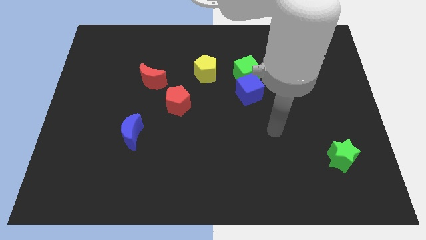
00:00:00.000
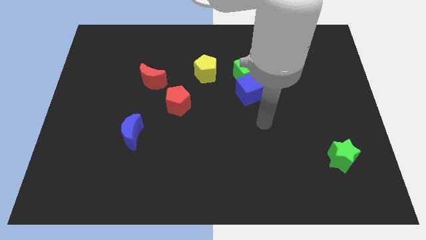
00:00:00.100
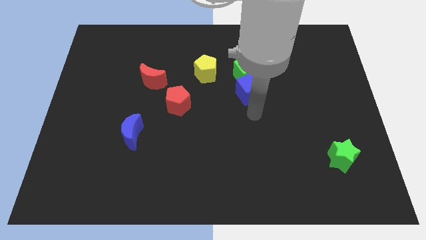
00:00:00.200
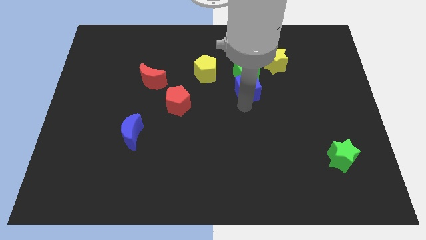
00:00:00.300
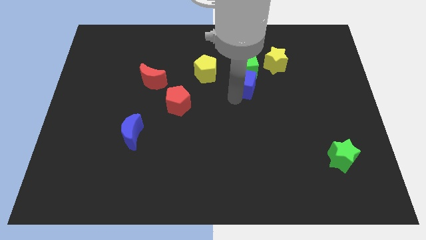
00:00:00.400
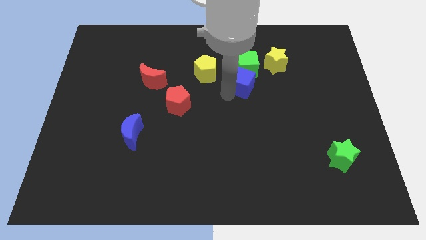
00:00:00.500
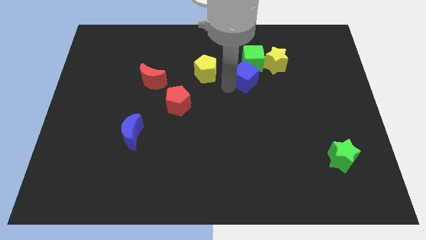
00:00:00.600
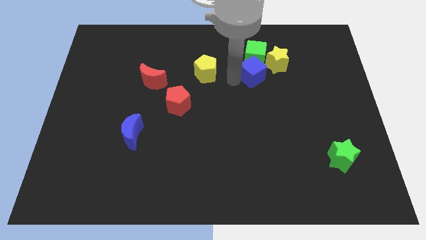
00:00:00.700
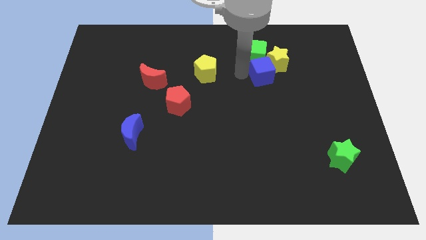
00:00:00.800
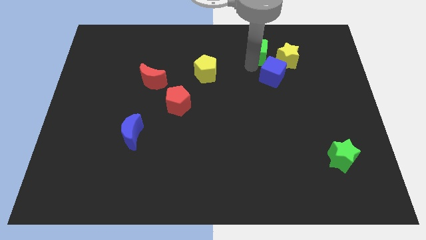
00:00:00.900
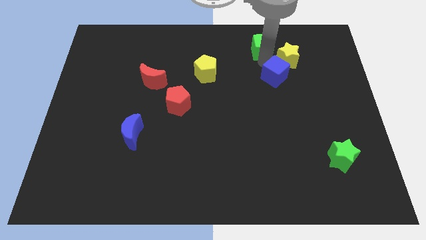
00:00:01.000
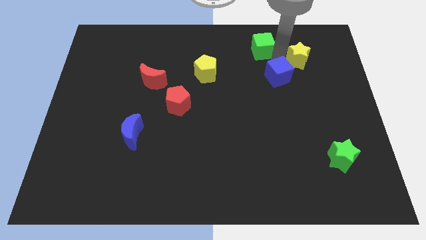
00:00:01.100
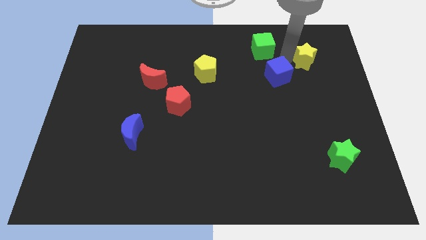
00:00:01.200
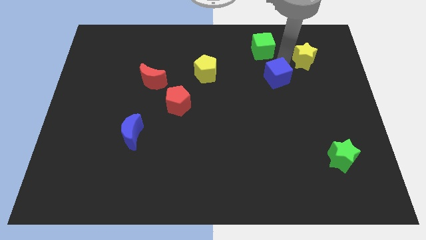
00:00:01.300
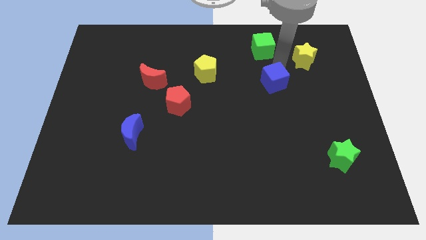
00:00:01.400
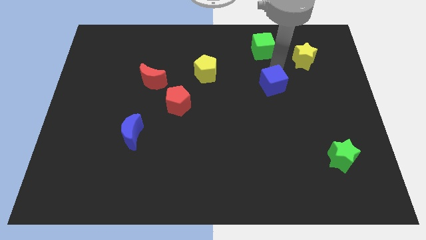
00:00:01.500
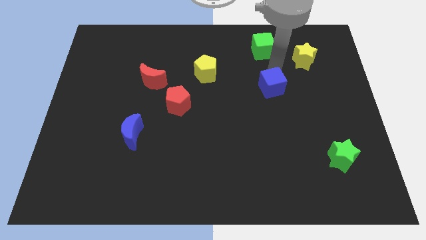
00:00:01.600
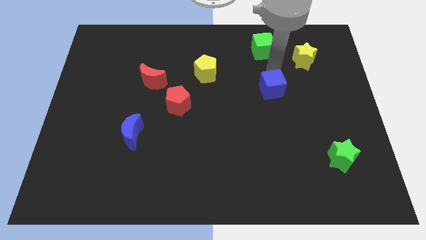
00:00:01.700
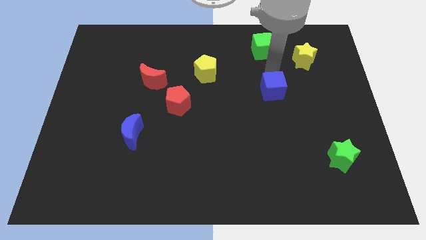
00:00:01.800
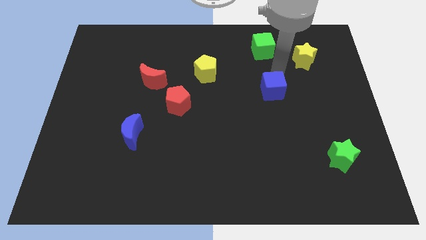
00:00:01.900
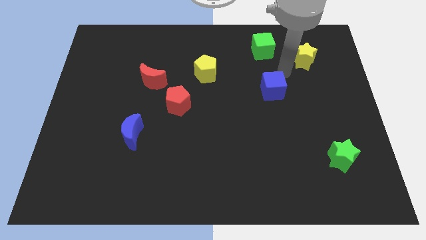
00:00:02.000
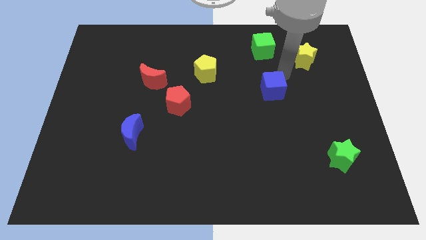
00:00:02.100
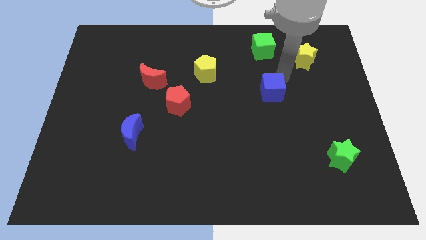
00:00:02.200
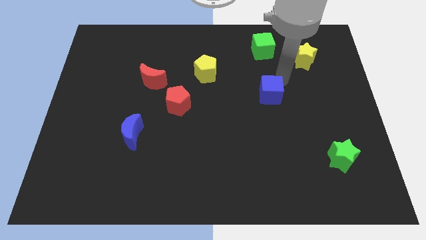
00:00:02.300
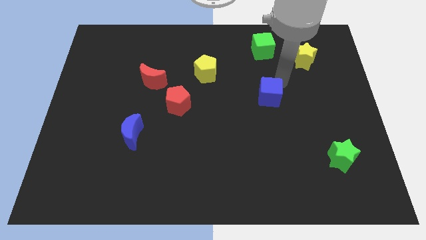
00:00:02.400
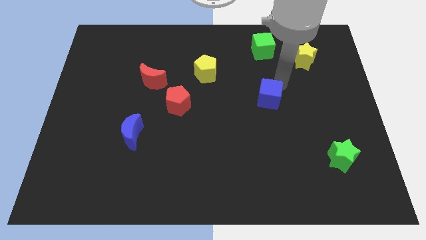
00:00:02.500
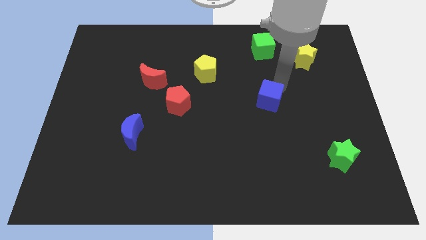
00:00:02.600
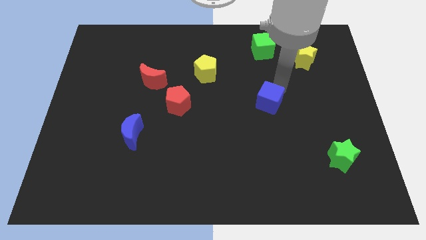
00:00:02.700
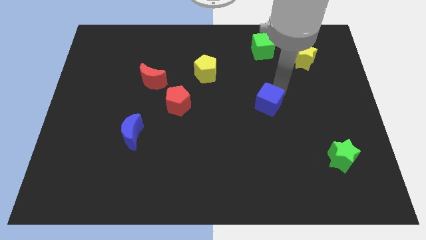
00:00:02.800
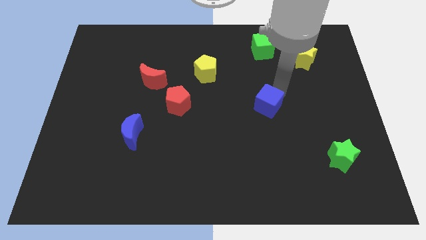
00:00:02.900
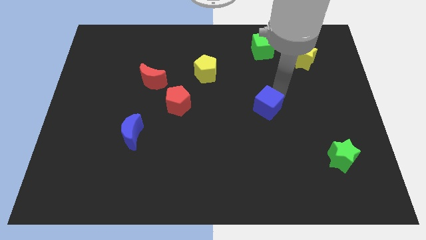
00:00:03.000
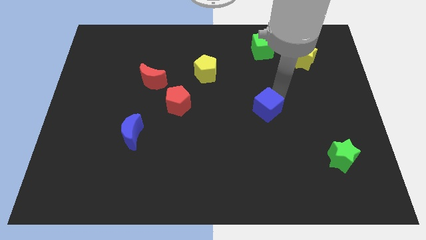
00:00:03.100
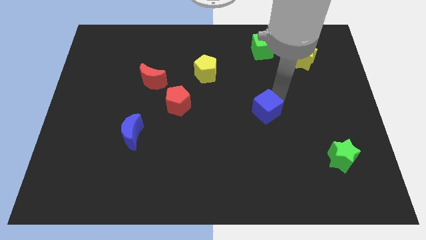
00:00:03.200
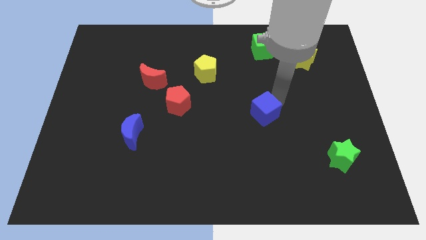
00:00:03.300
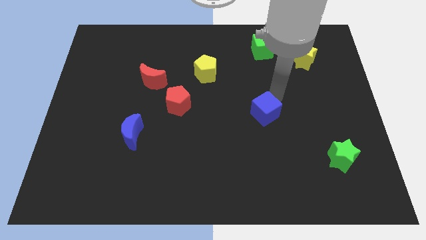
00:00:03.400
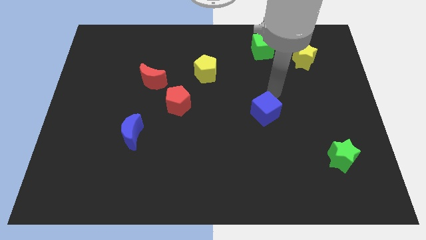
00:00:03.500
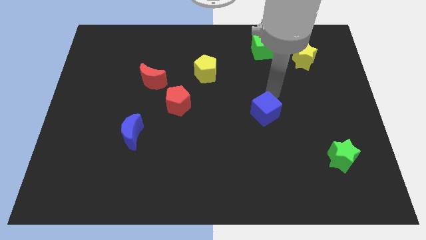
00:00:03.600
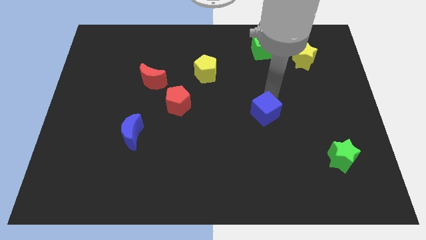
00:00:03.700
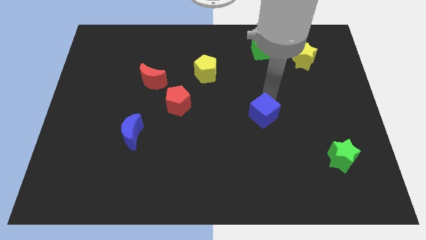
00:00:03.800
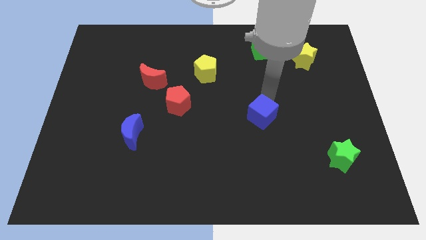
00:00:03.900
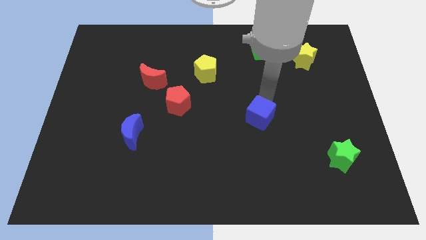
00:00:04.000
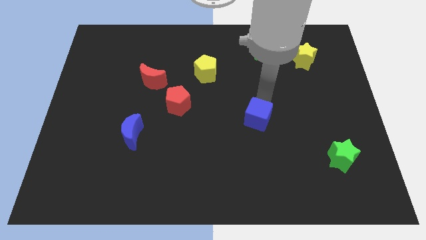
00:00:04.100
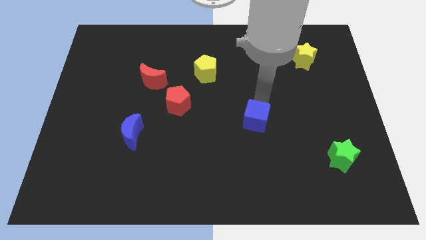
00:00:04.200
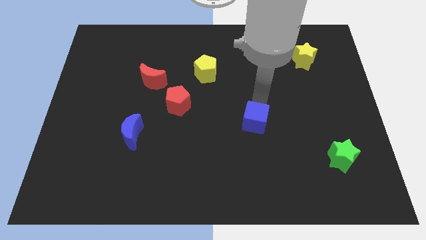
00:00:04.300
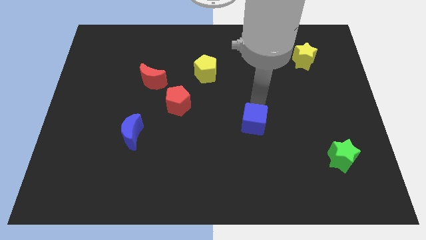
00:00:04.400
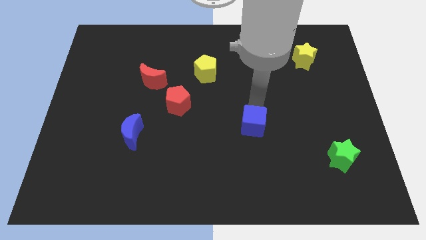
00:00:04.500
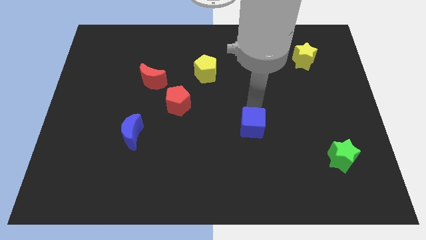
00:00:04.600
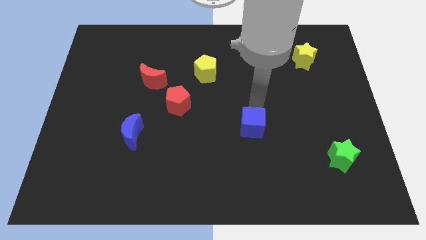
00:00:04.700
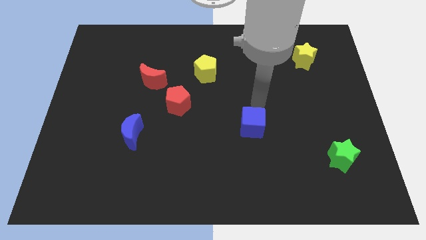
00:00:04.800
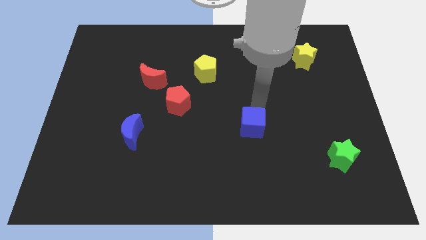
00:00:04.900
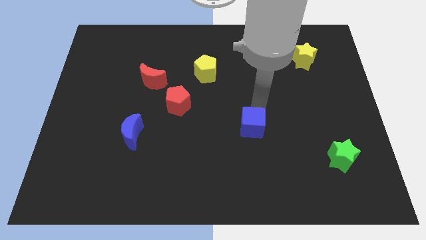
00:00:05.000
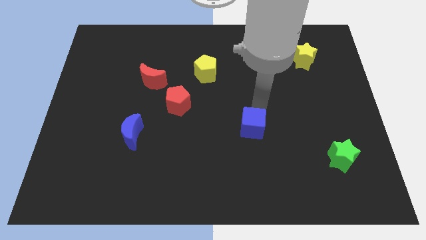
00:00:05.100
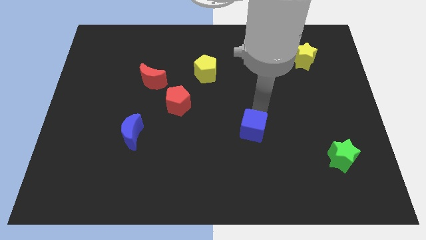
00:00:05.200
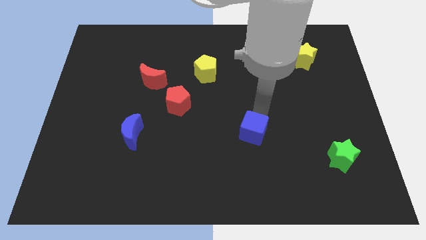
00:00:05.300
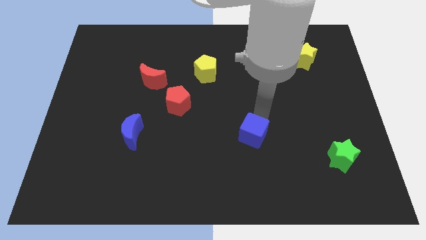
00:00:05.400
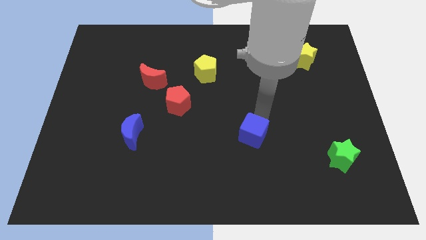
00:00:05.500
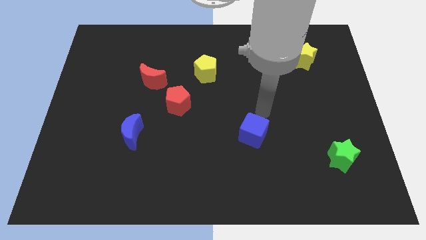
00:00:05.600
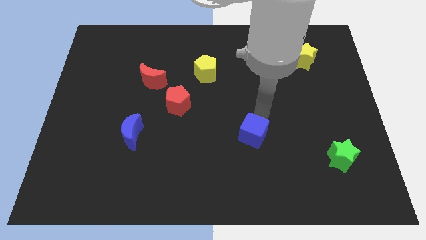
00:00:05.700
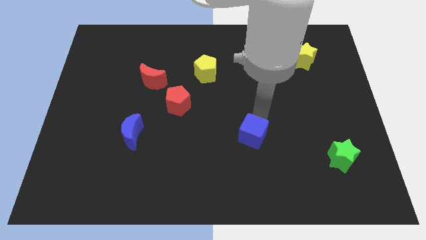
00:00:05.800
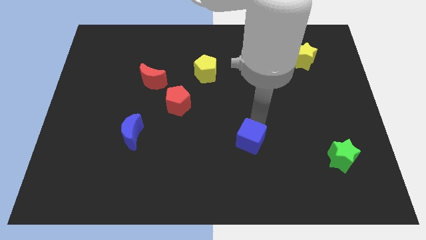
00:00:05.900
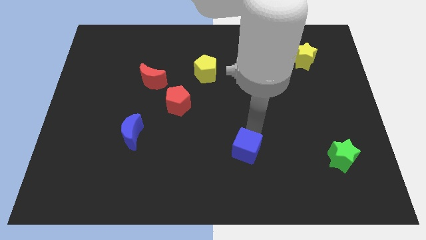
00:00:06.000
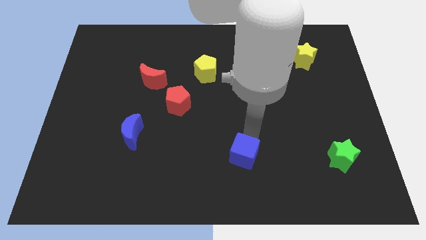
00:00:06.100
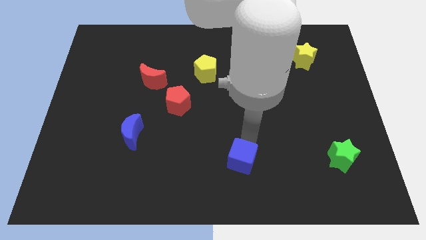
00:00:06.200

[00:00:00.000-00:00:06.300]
put the blue cube to the bottom side

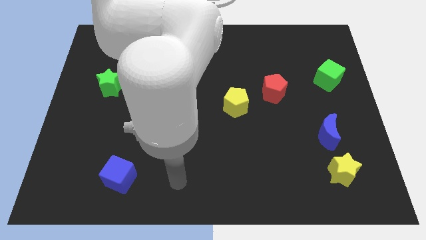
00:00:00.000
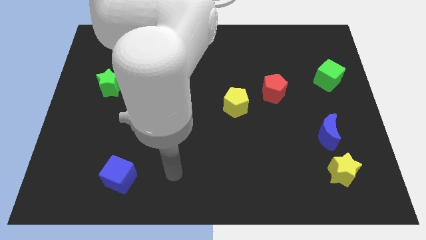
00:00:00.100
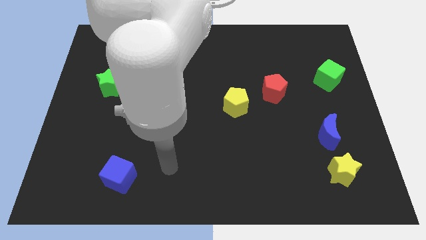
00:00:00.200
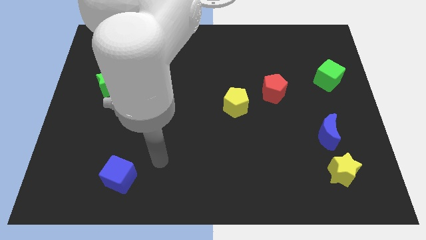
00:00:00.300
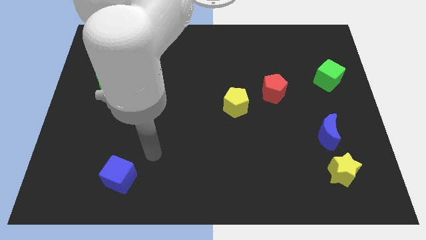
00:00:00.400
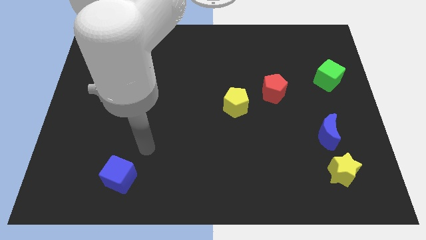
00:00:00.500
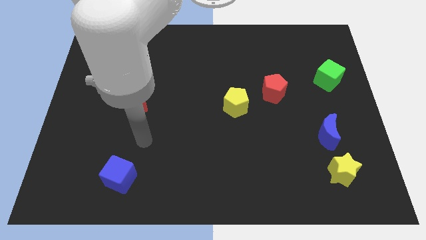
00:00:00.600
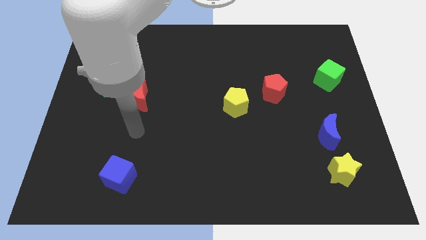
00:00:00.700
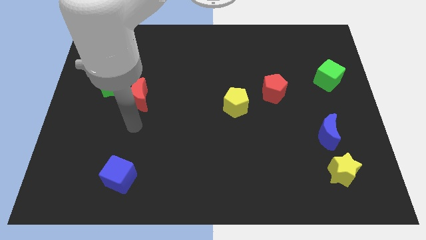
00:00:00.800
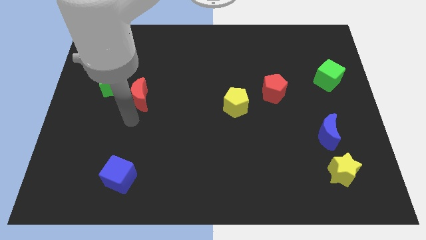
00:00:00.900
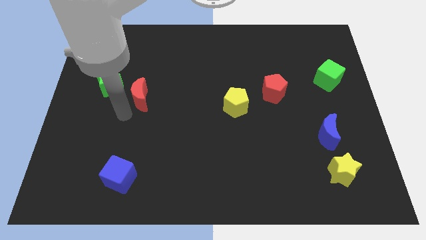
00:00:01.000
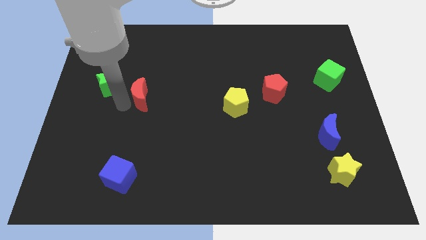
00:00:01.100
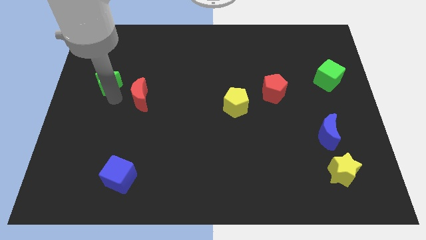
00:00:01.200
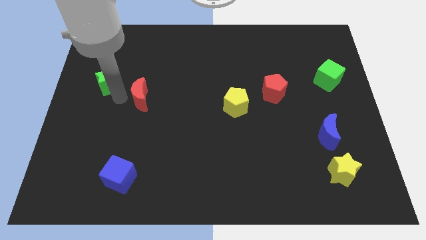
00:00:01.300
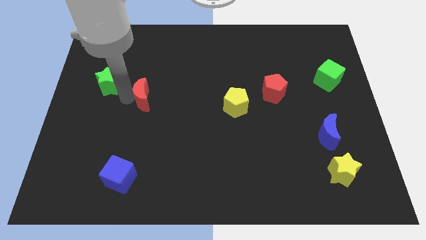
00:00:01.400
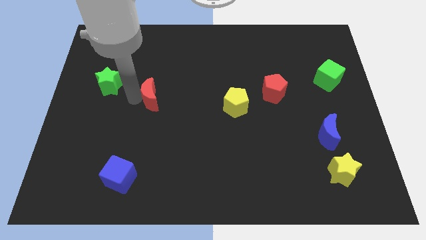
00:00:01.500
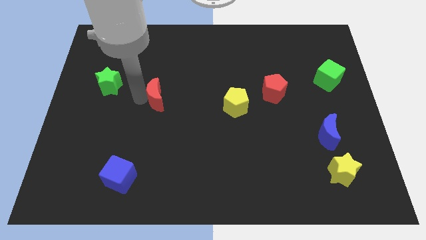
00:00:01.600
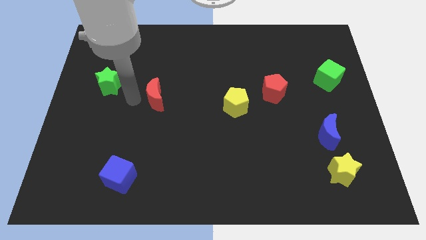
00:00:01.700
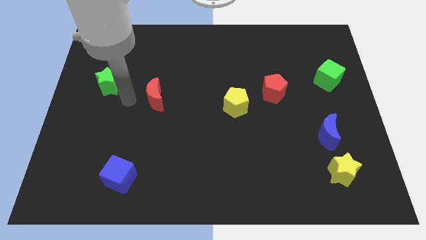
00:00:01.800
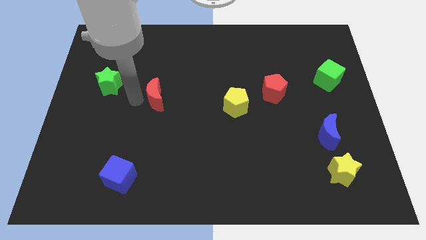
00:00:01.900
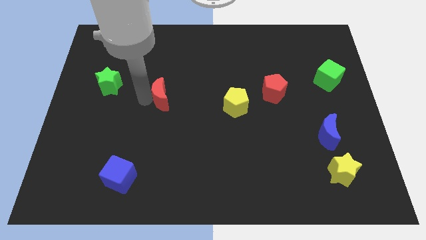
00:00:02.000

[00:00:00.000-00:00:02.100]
push the red moon to the middle of the board
